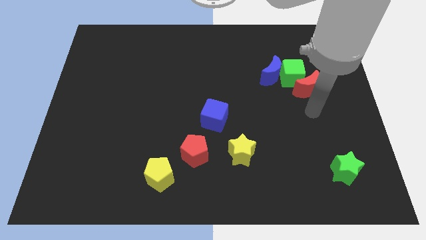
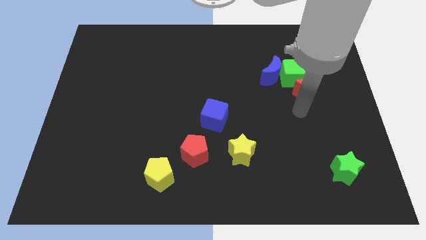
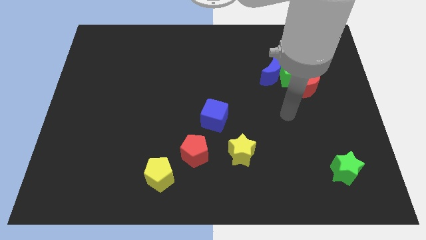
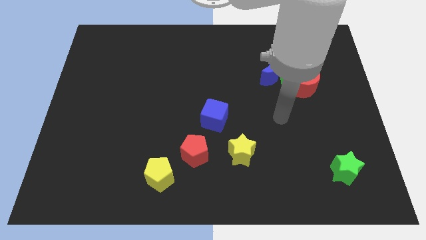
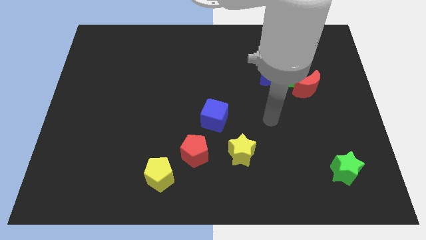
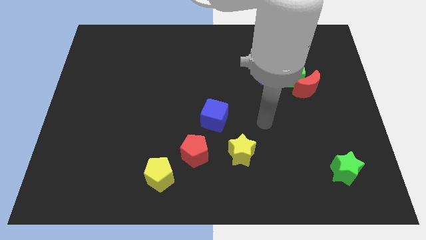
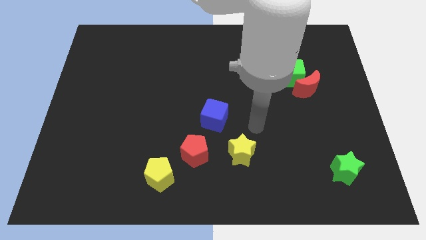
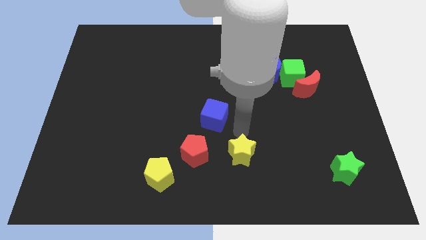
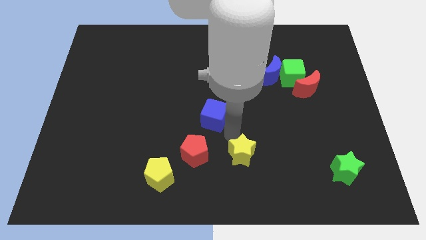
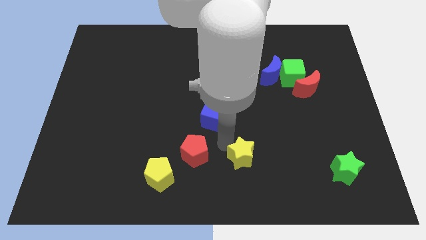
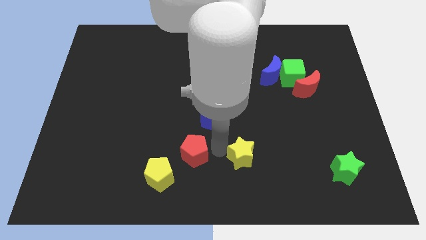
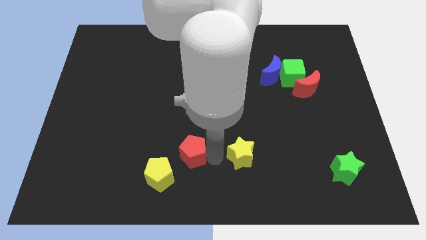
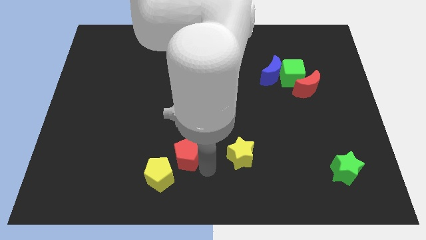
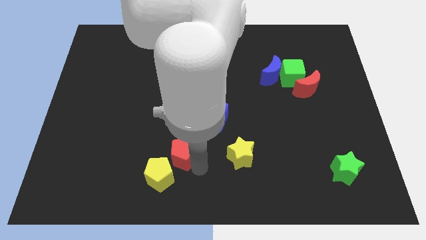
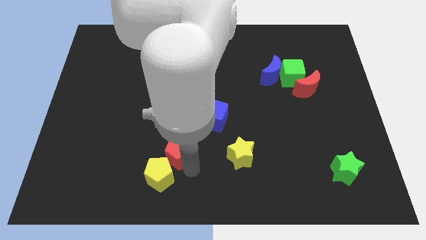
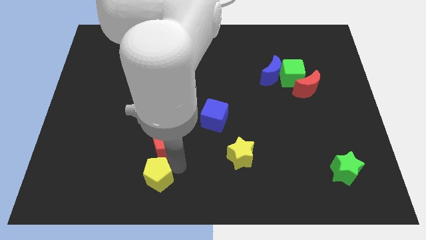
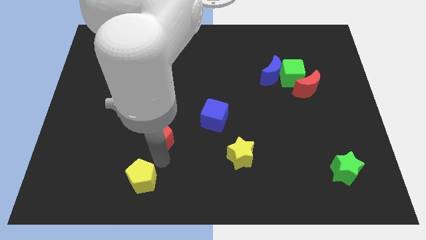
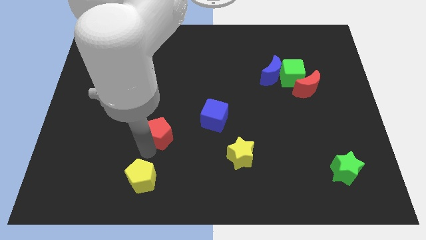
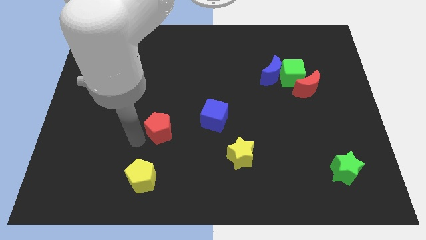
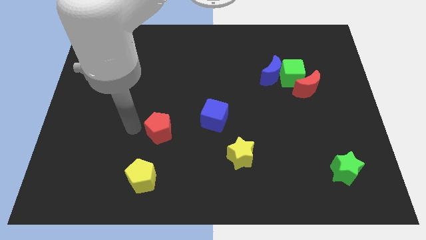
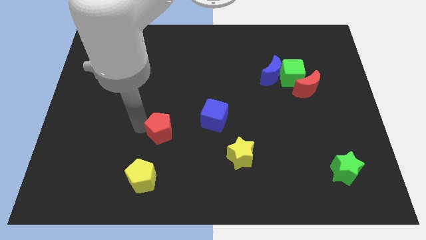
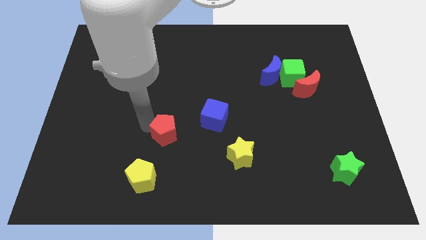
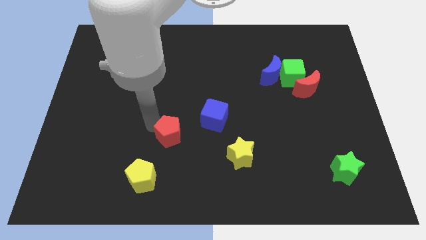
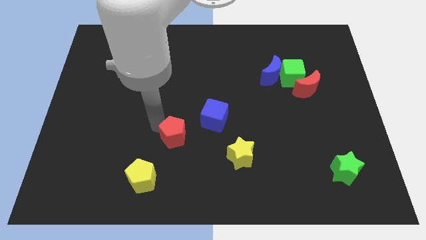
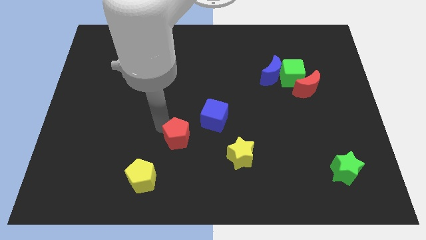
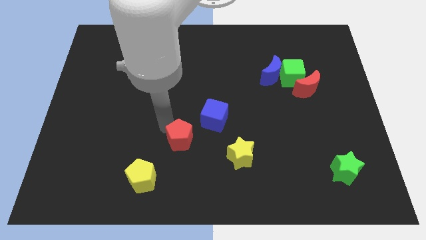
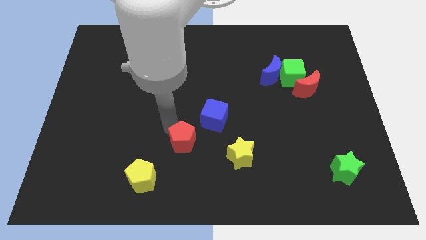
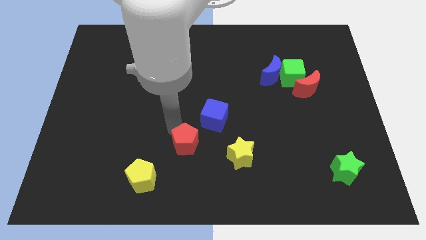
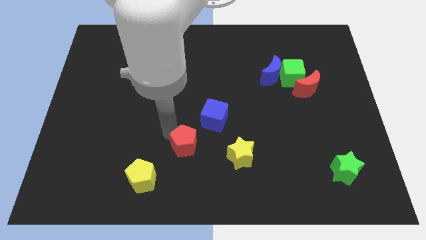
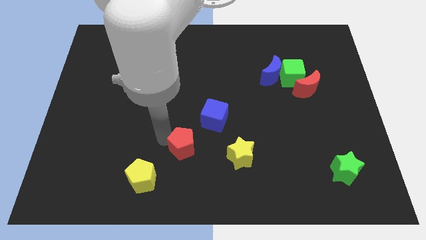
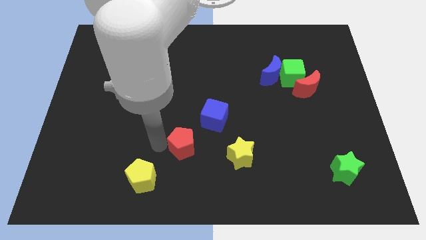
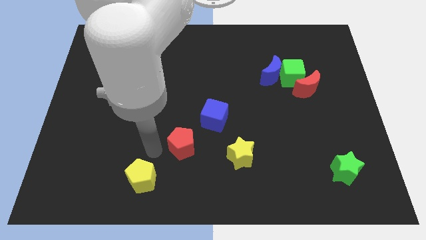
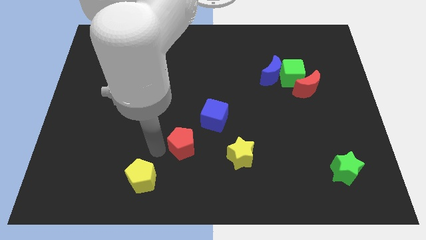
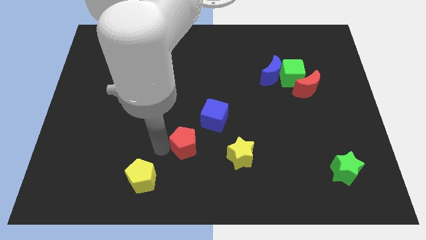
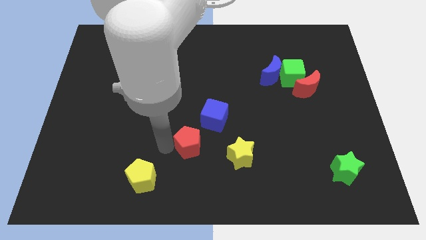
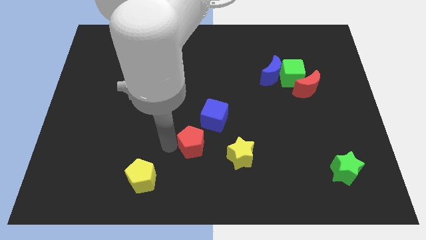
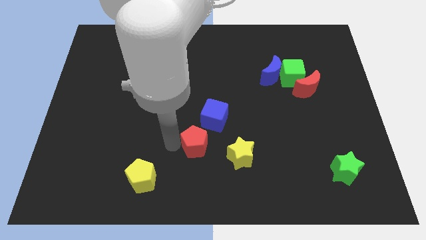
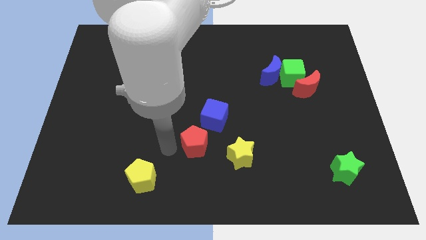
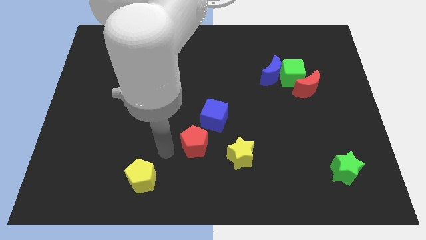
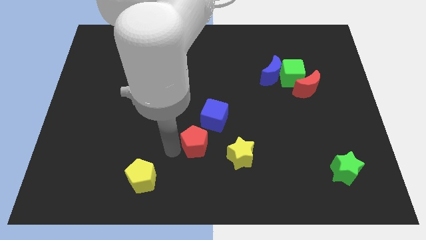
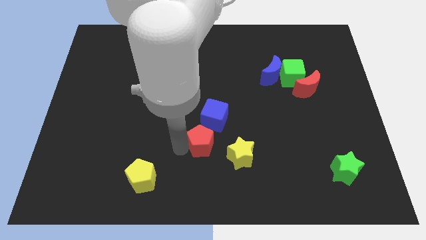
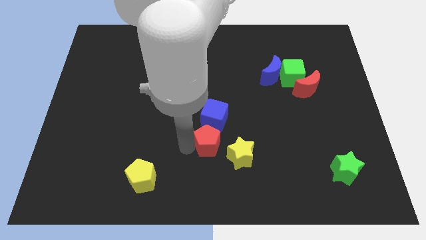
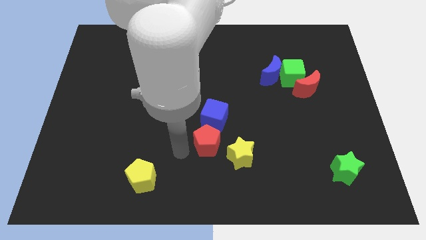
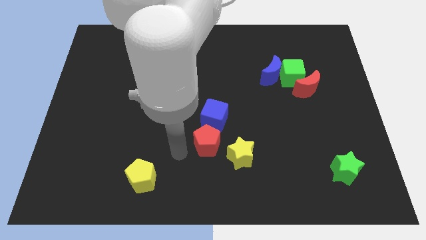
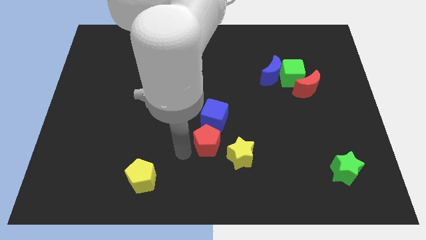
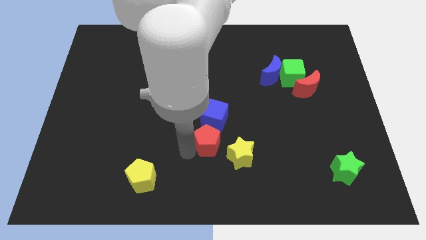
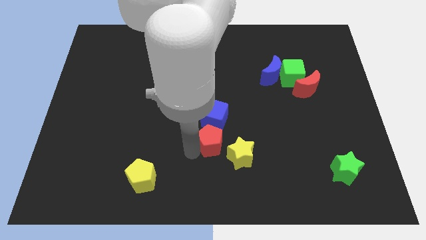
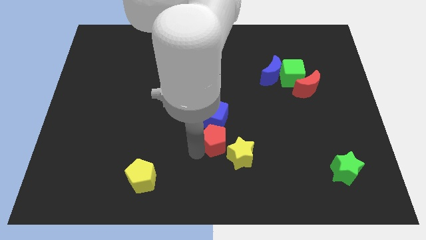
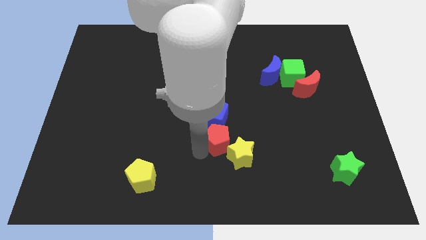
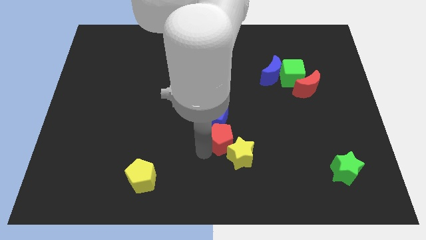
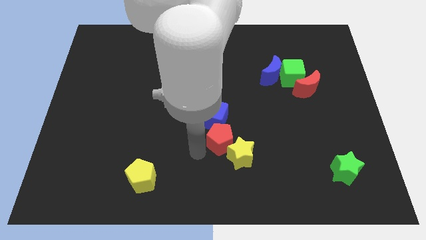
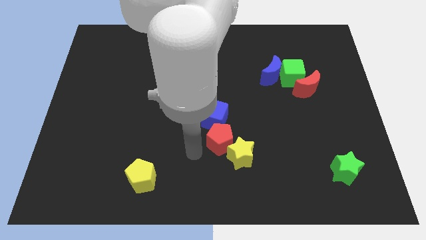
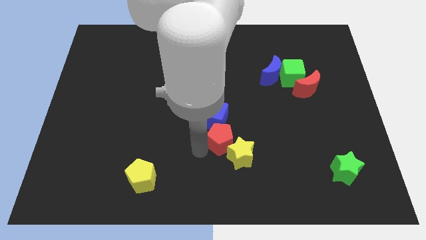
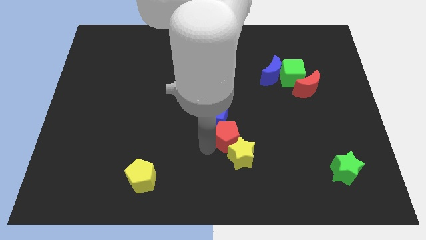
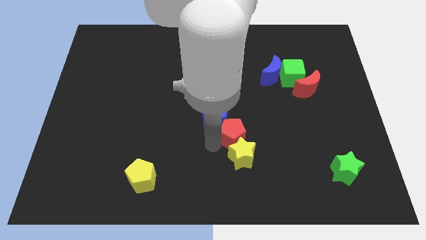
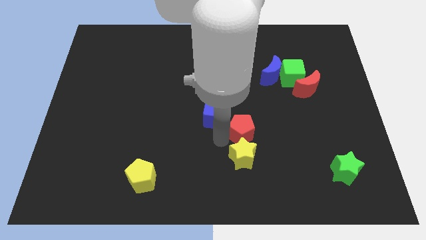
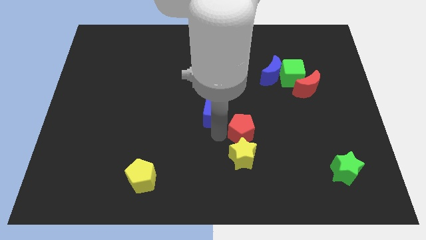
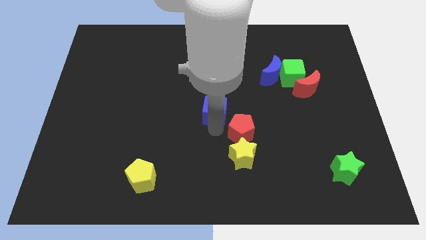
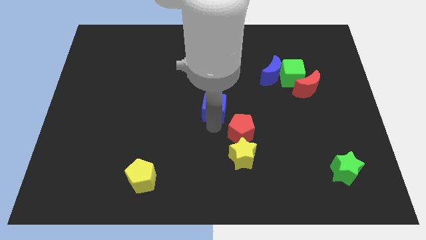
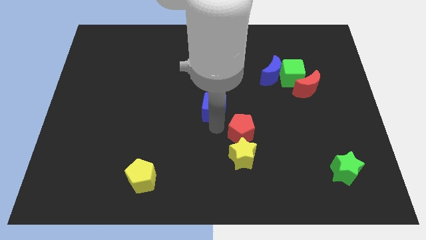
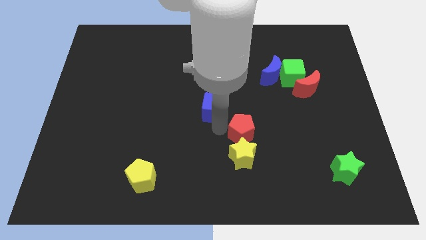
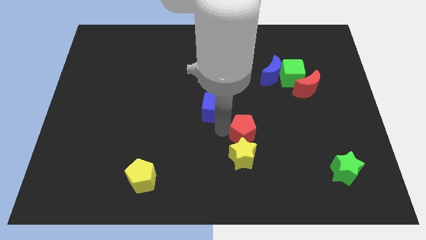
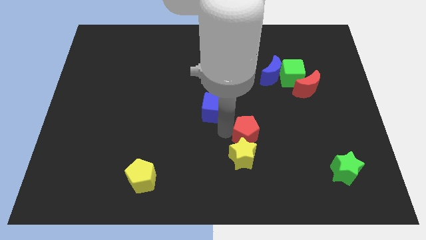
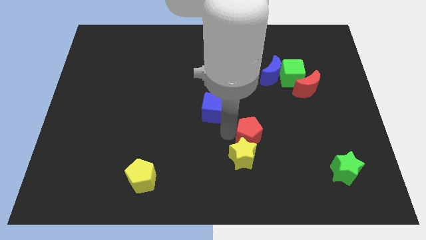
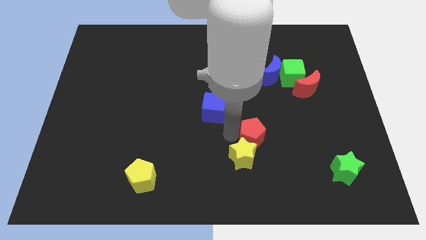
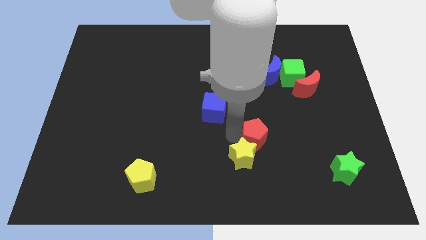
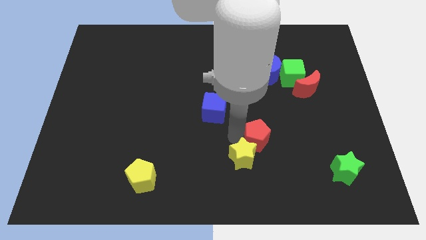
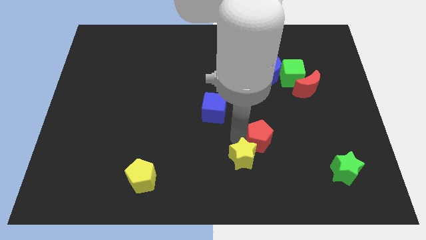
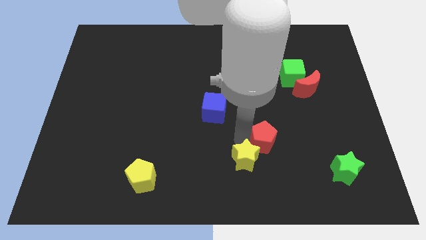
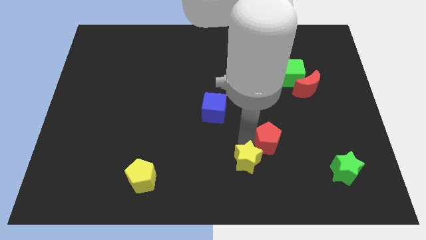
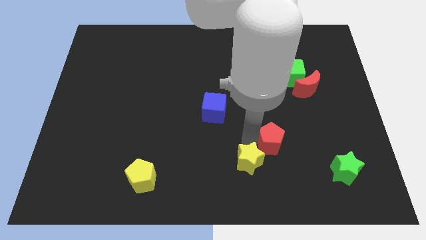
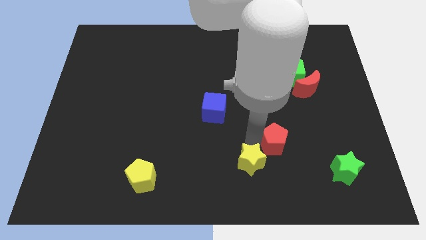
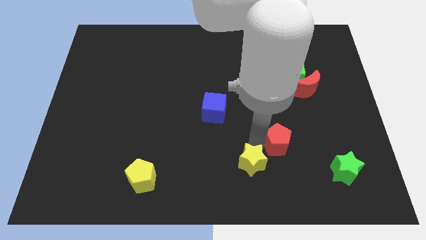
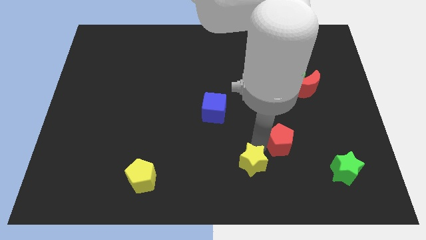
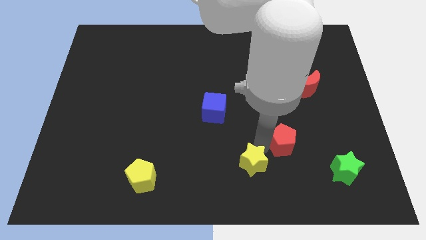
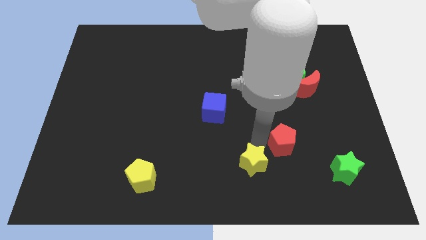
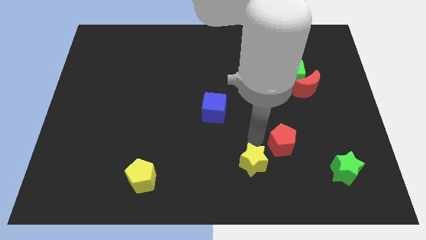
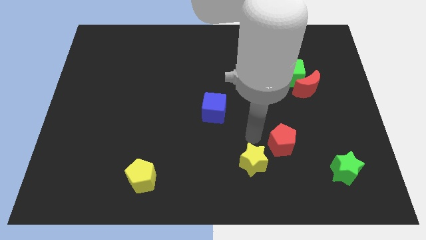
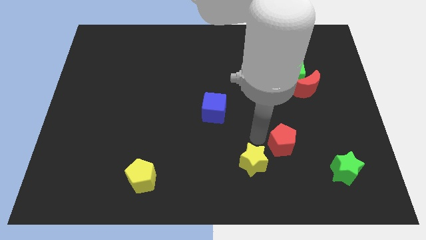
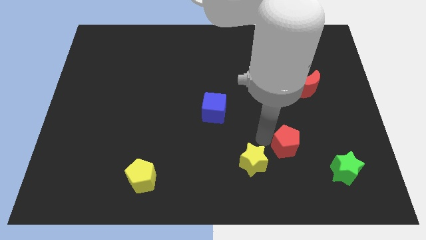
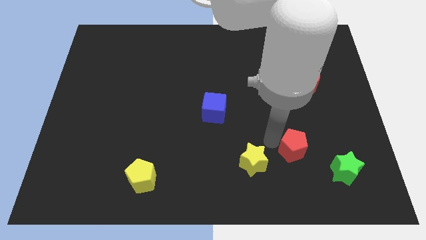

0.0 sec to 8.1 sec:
move the red pentagon to the top left of the green star
